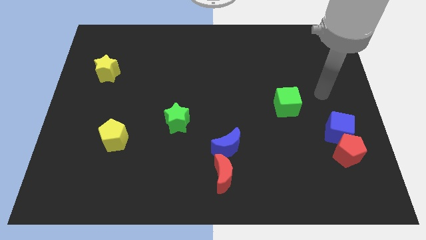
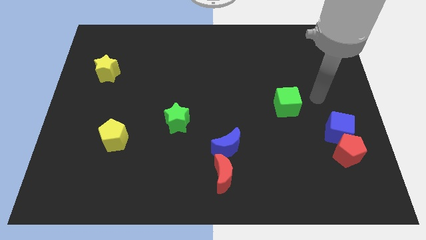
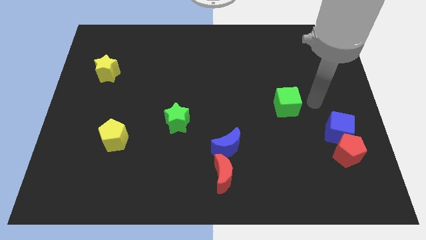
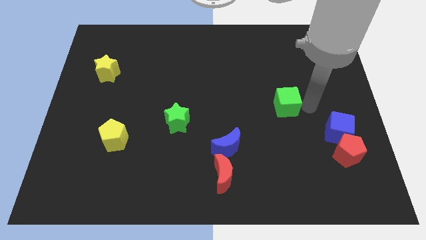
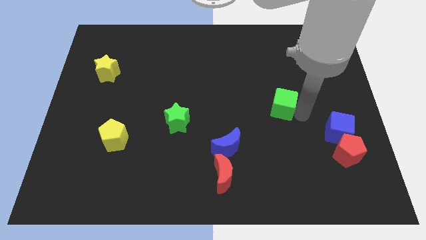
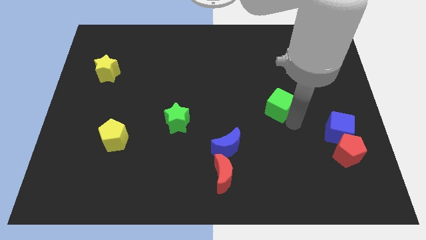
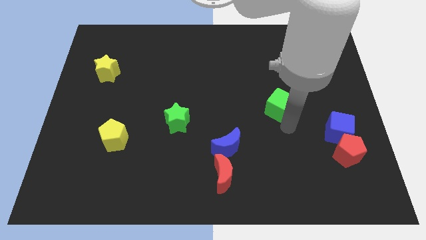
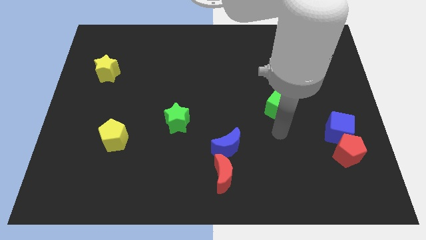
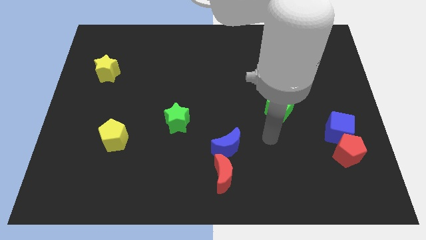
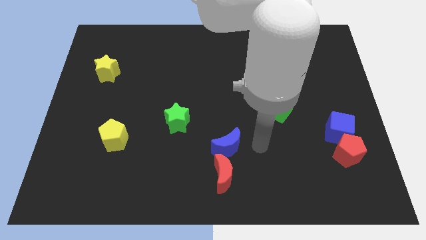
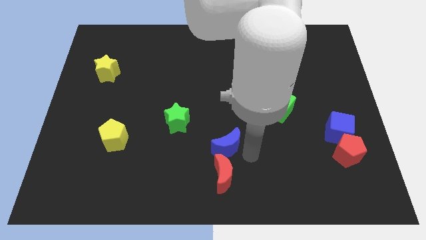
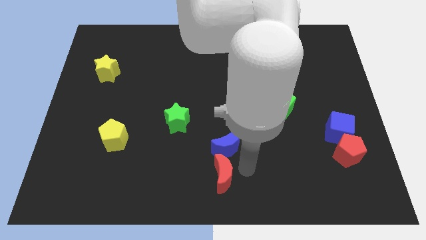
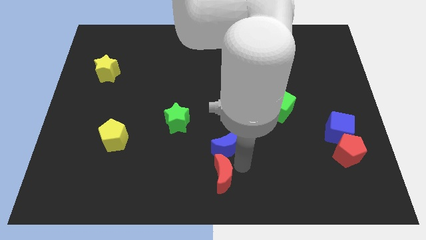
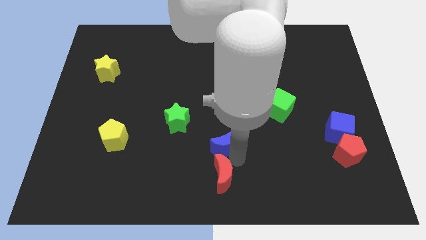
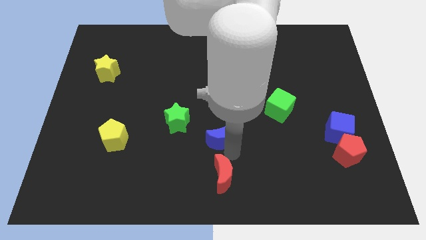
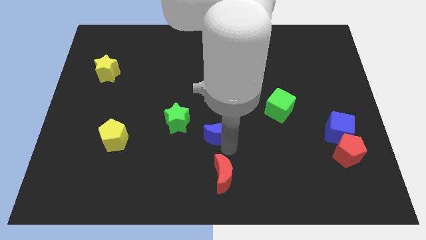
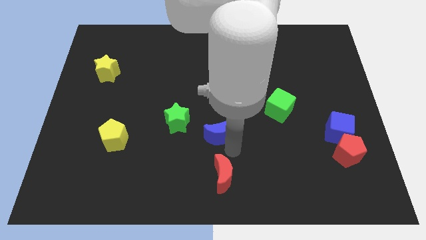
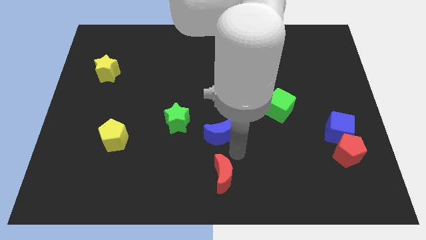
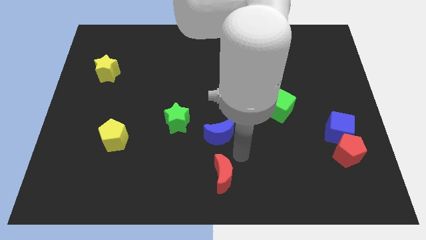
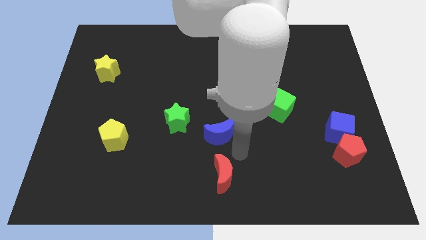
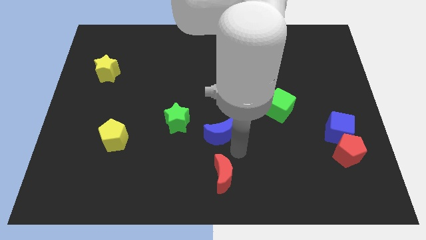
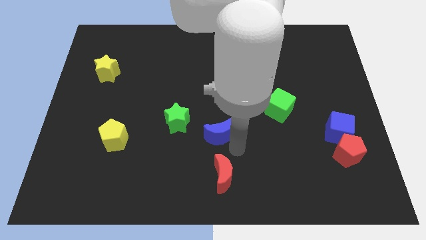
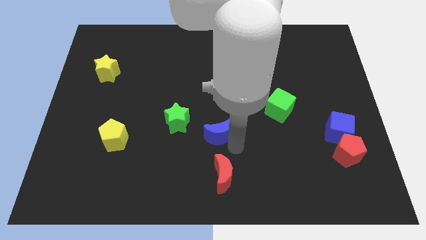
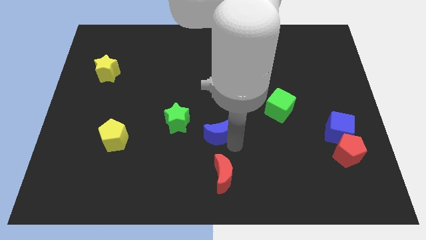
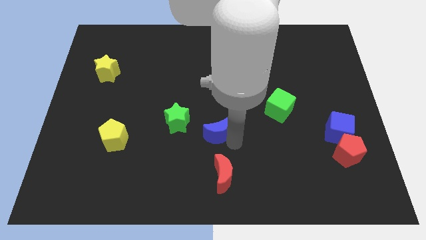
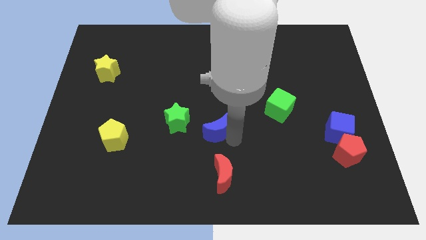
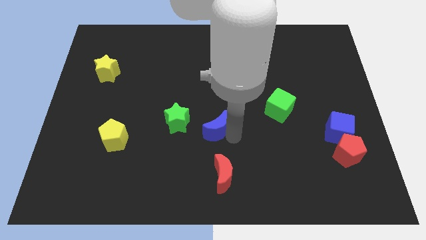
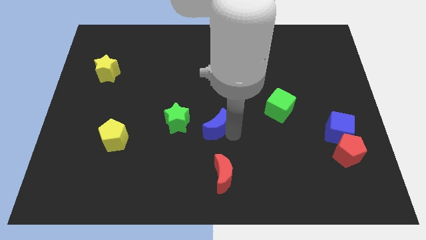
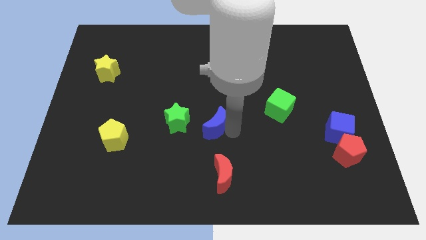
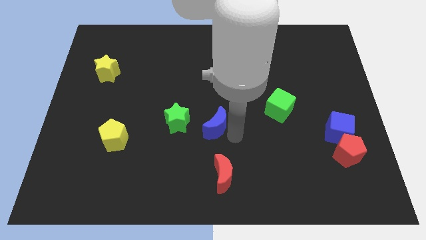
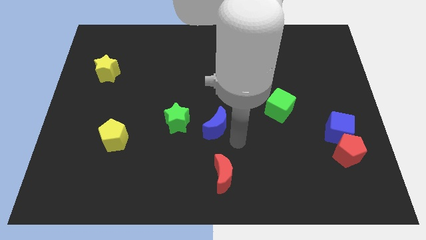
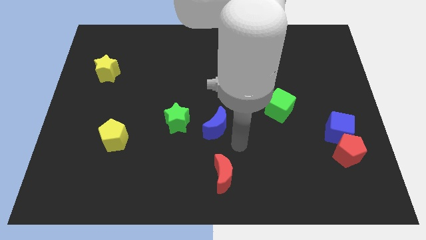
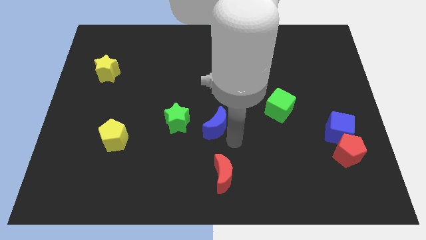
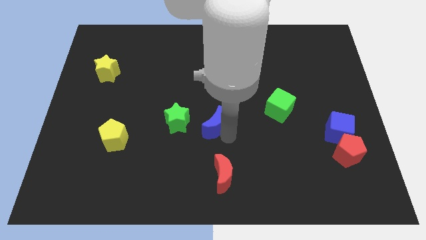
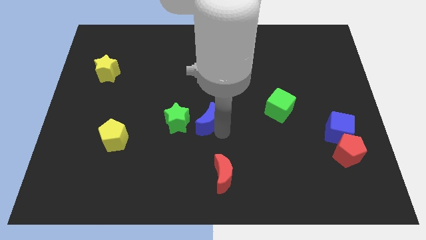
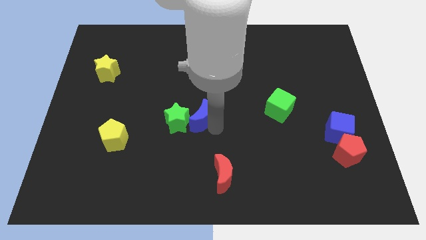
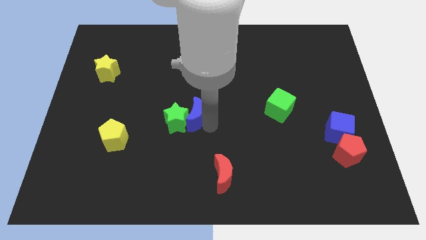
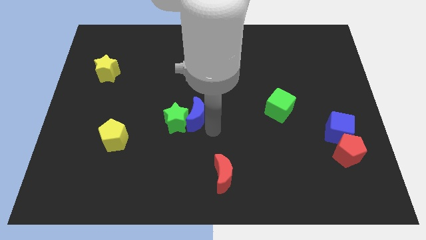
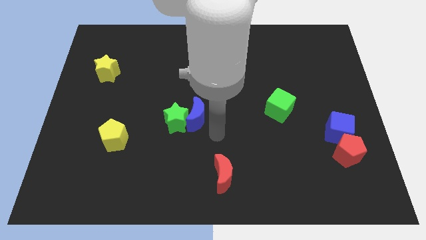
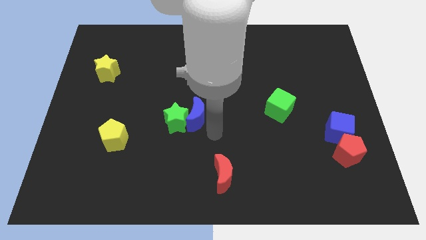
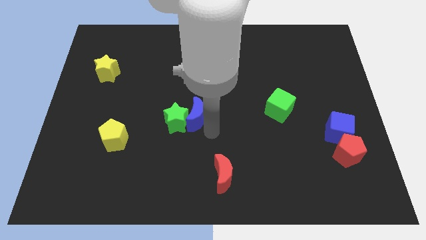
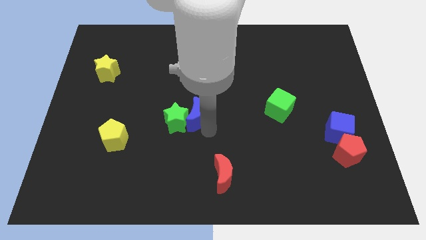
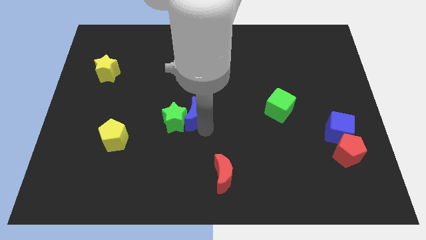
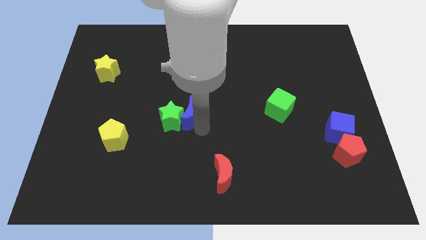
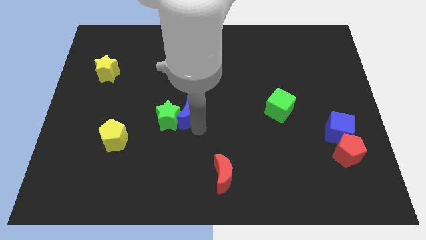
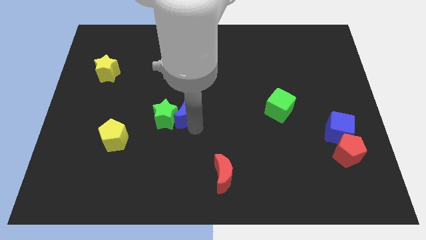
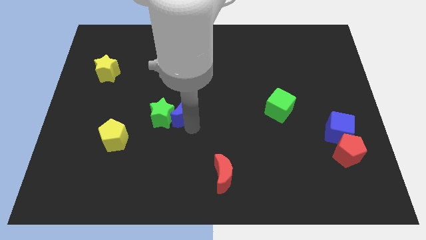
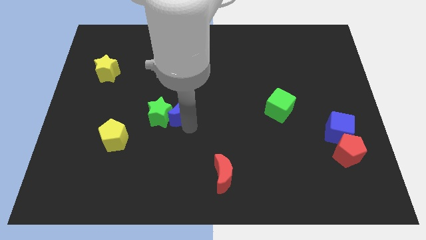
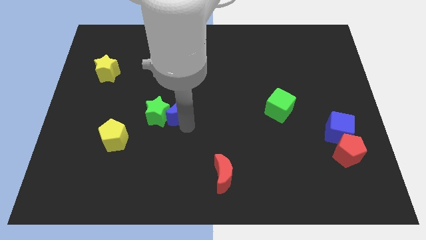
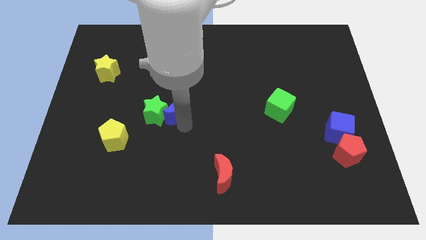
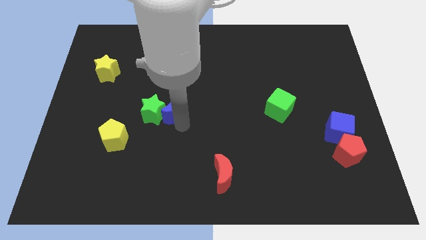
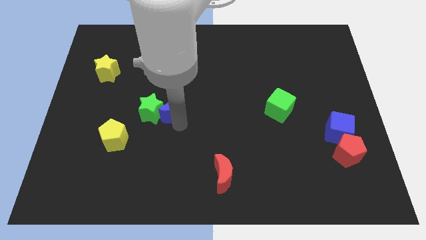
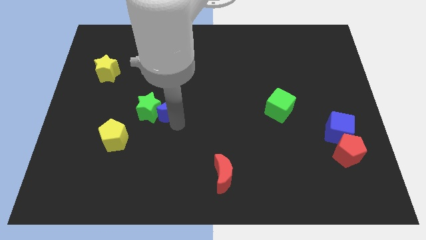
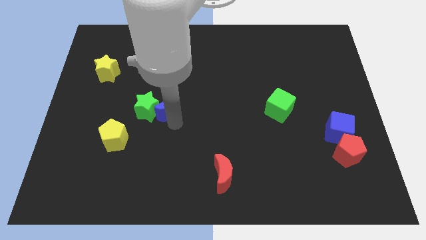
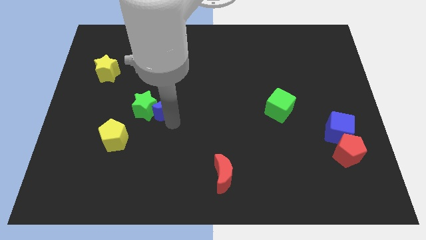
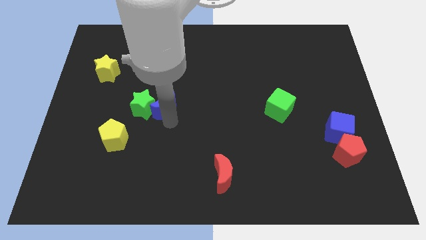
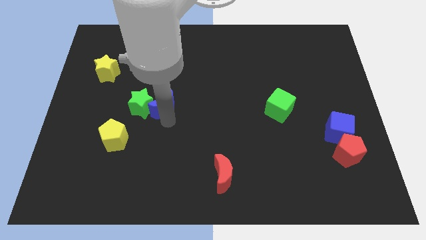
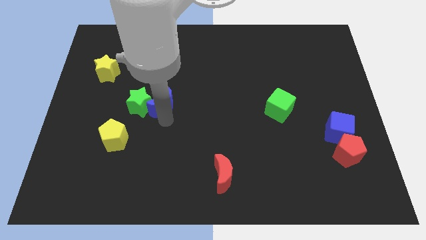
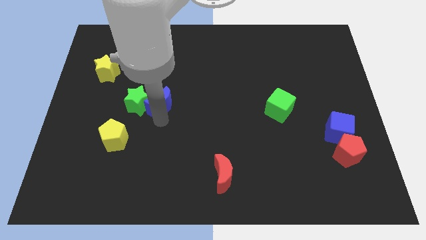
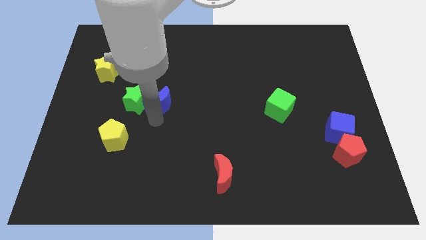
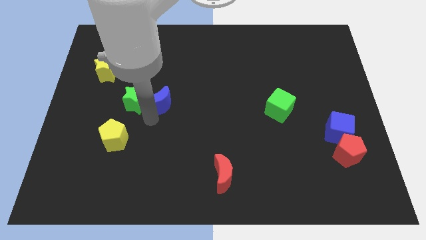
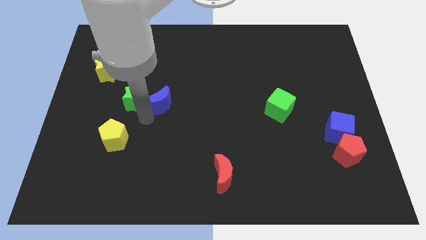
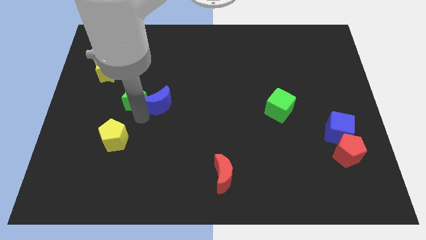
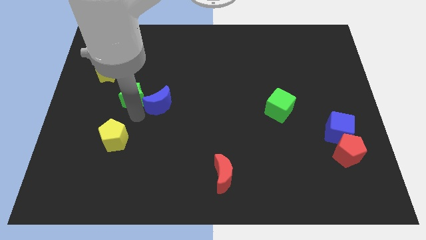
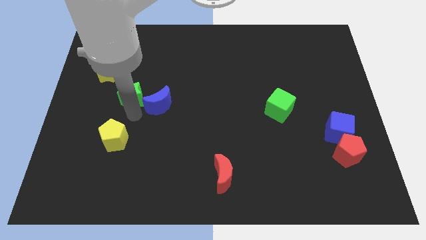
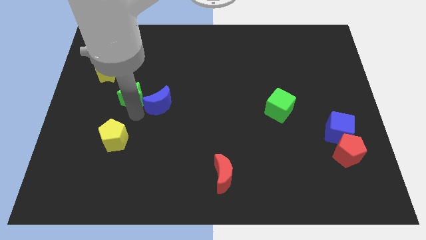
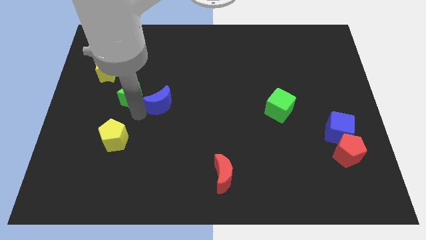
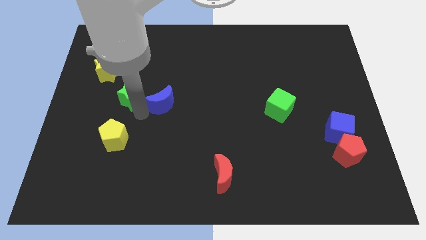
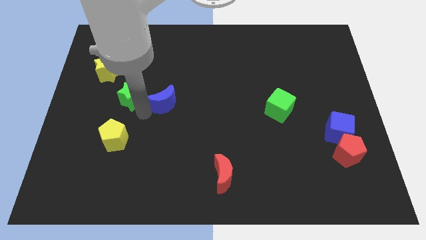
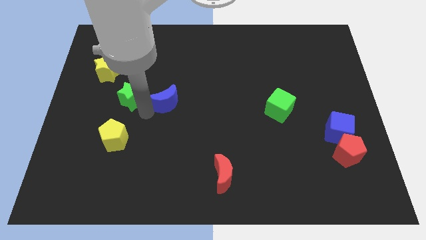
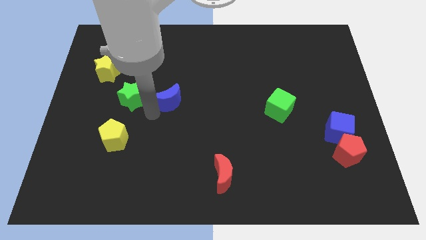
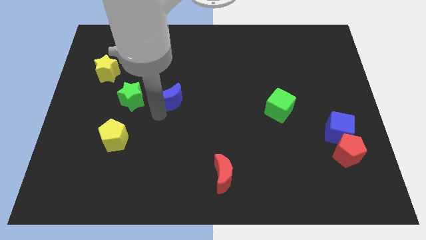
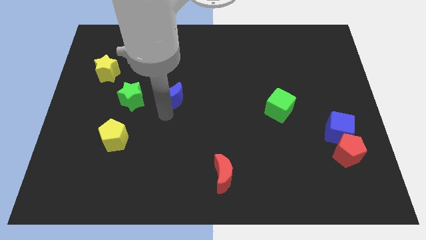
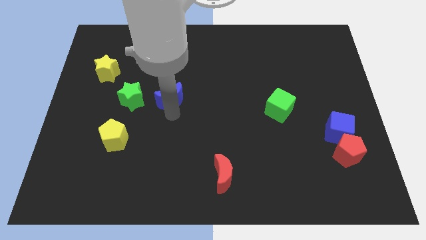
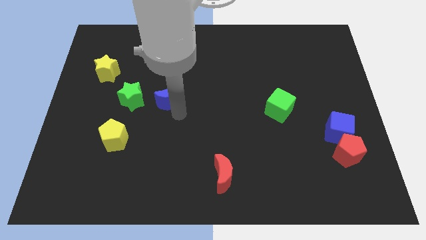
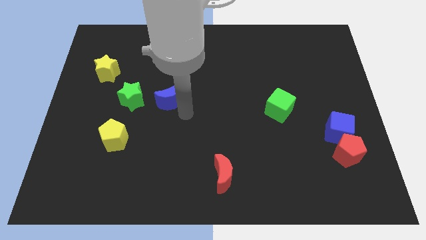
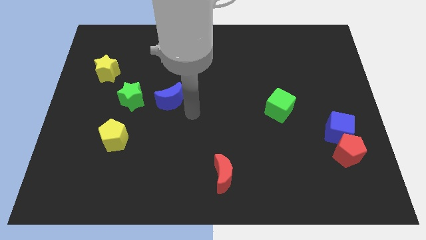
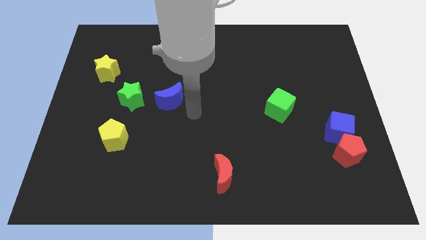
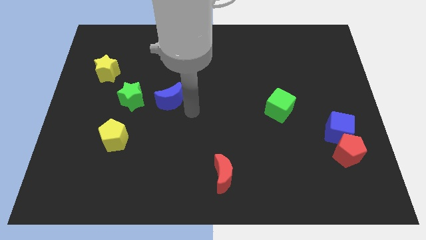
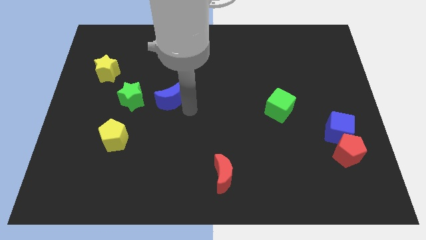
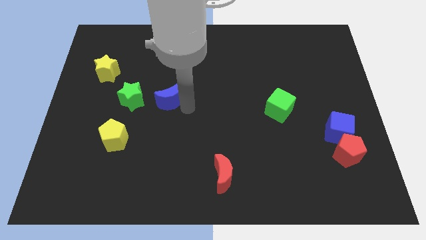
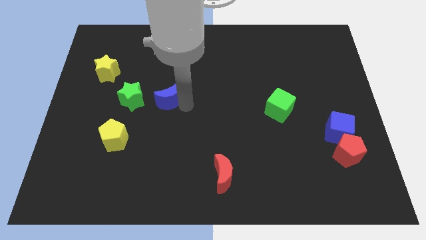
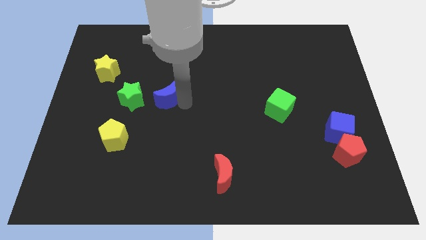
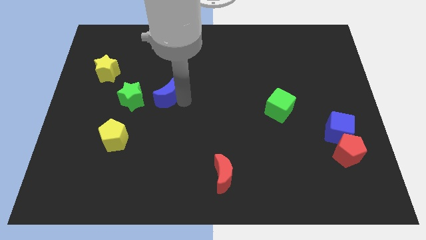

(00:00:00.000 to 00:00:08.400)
push the blue moon up and to the left
